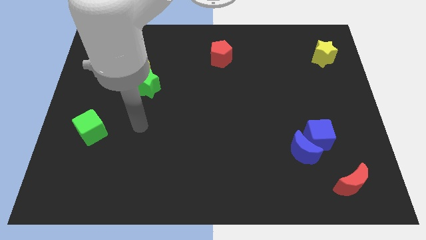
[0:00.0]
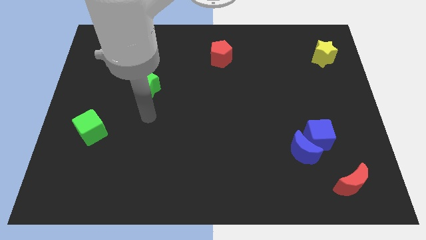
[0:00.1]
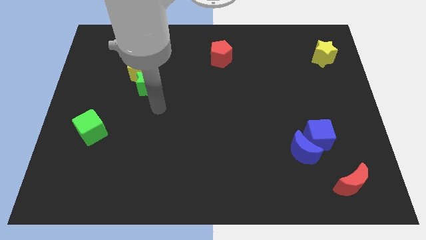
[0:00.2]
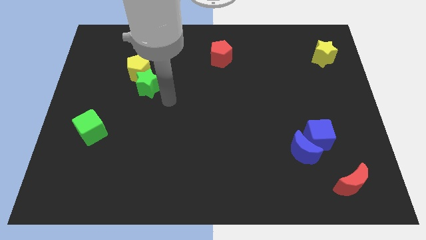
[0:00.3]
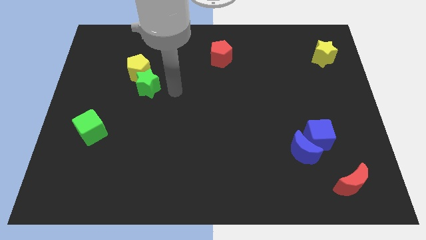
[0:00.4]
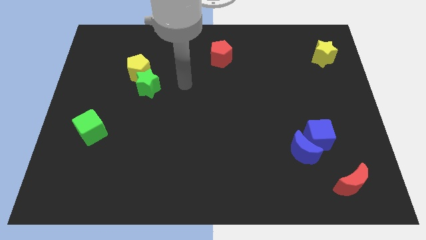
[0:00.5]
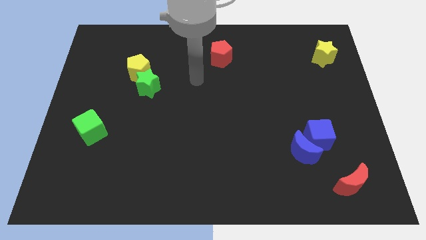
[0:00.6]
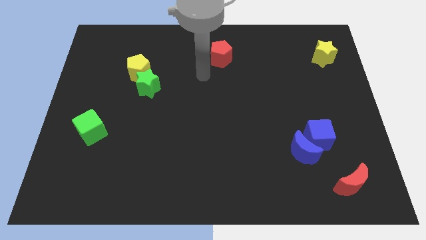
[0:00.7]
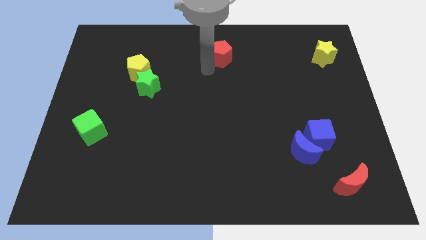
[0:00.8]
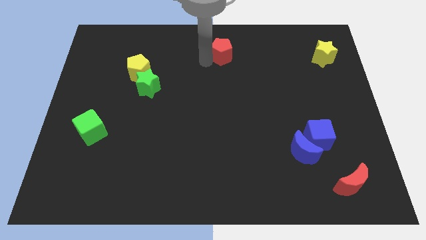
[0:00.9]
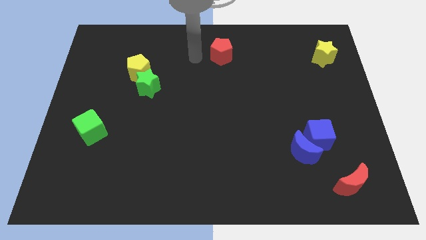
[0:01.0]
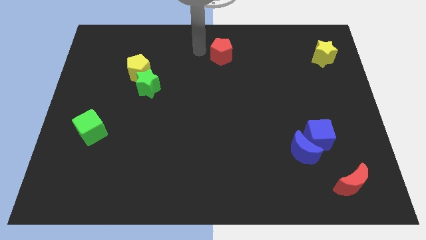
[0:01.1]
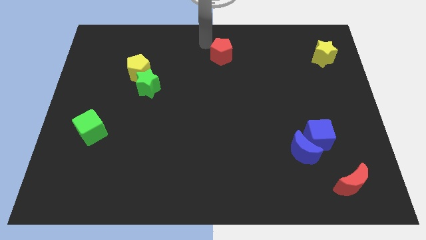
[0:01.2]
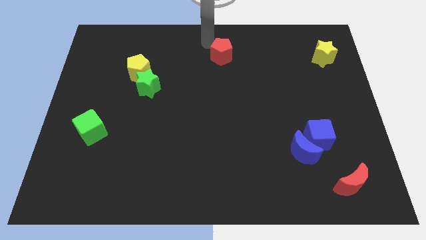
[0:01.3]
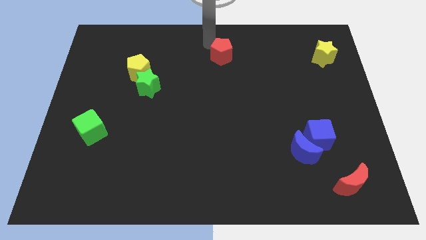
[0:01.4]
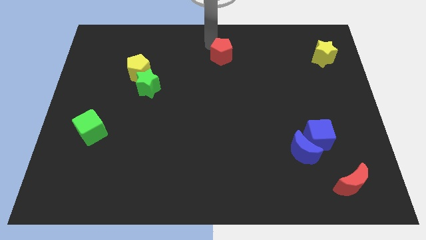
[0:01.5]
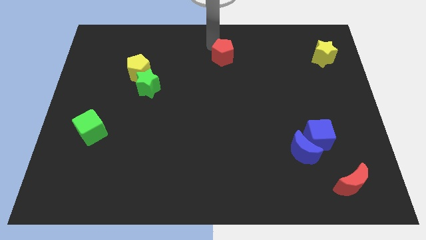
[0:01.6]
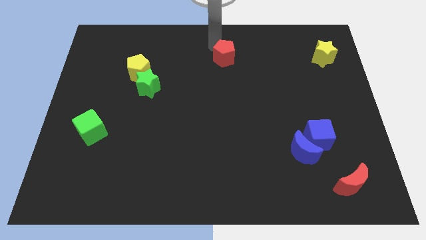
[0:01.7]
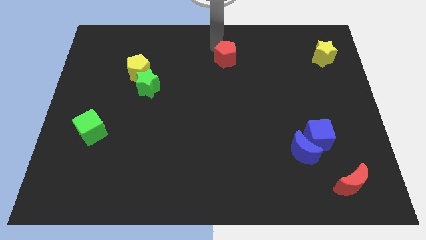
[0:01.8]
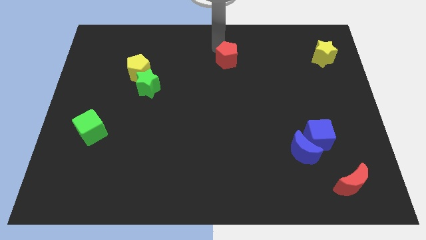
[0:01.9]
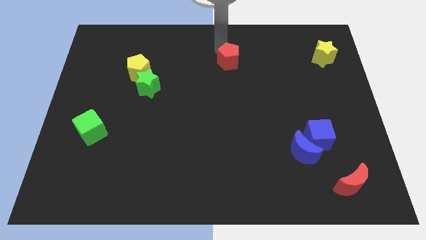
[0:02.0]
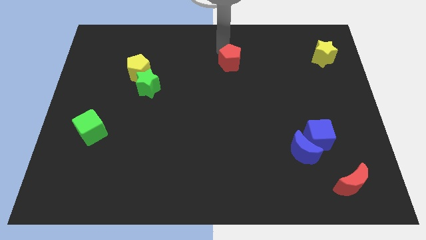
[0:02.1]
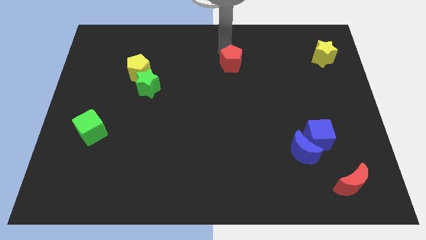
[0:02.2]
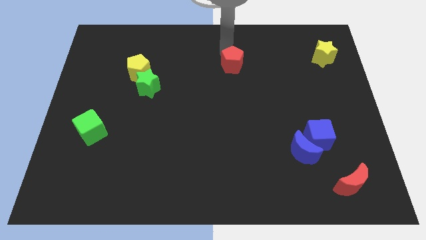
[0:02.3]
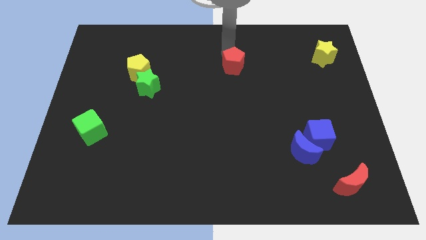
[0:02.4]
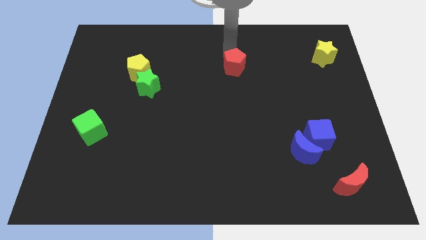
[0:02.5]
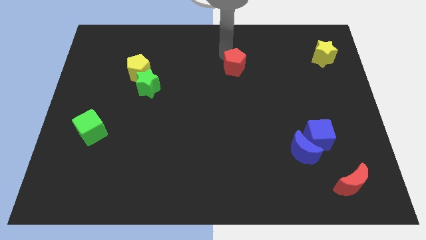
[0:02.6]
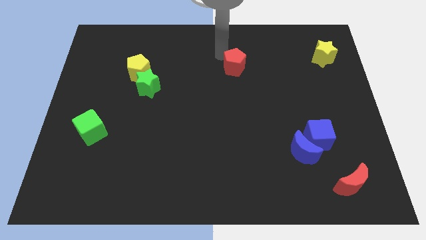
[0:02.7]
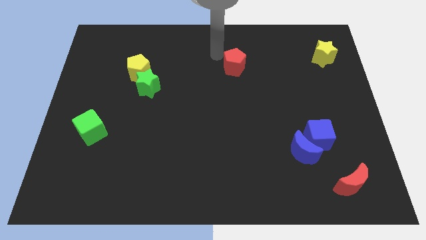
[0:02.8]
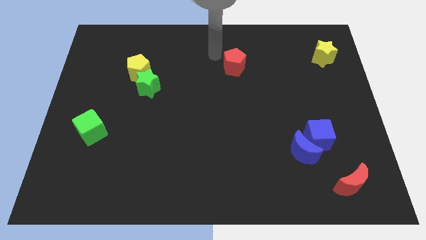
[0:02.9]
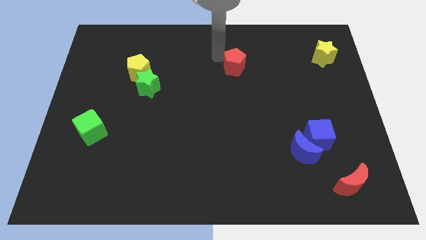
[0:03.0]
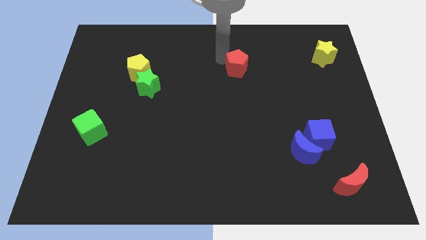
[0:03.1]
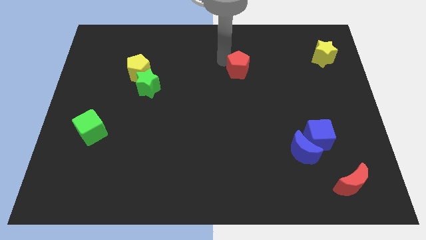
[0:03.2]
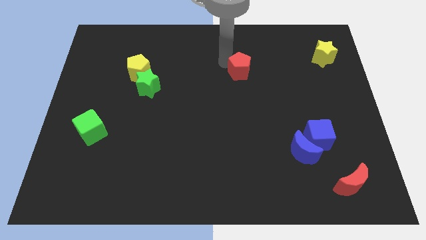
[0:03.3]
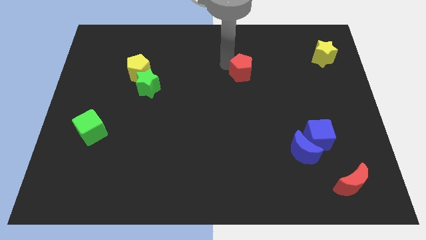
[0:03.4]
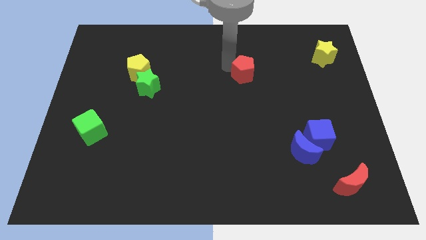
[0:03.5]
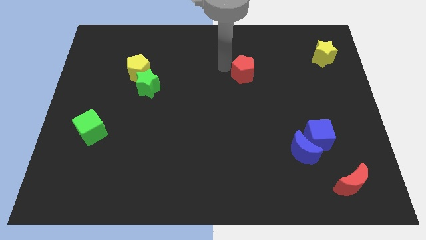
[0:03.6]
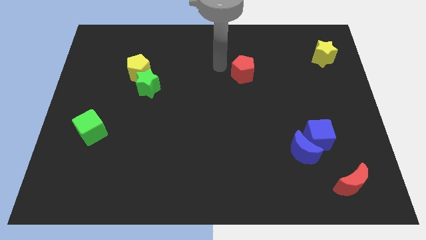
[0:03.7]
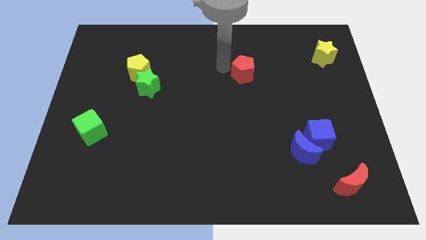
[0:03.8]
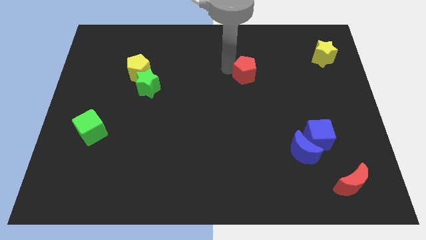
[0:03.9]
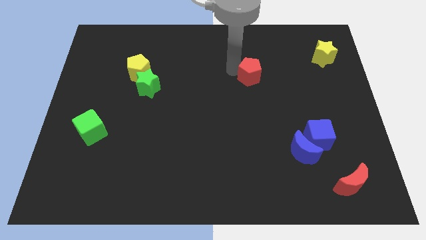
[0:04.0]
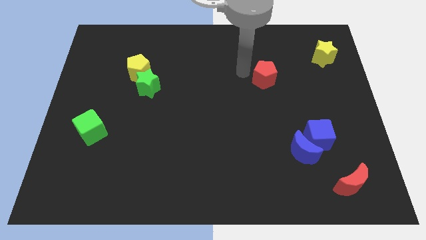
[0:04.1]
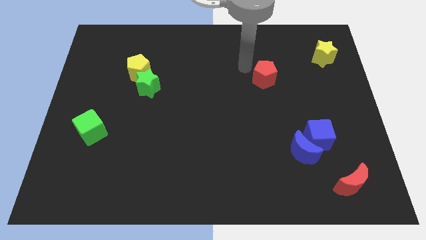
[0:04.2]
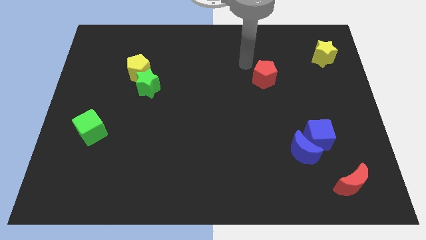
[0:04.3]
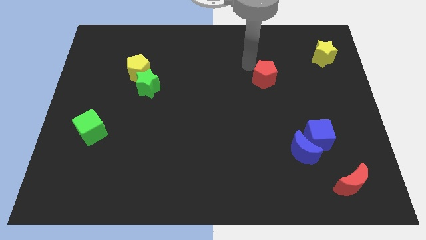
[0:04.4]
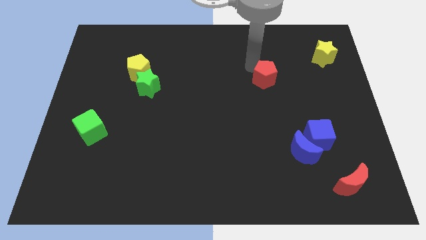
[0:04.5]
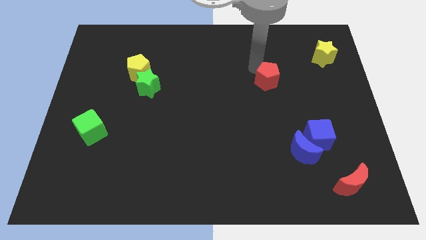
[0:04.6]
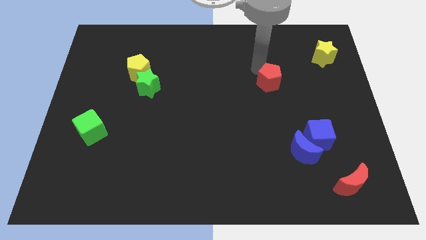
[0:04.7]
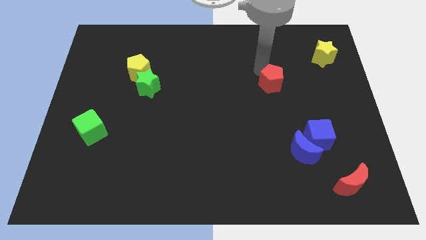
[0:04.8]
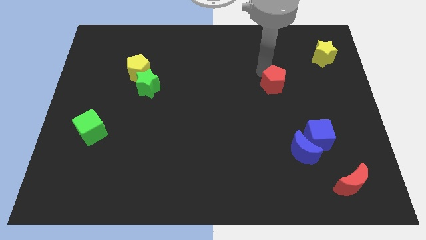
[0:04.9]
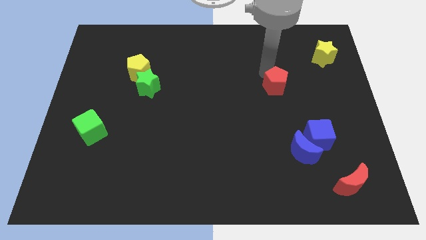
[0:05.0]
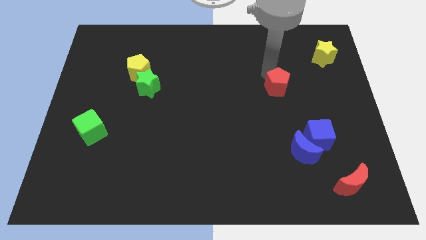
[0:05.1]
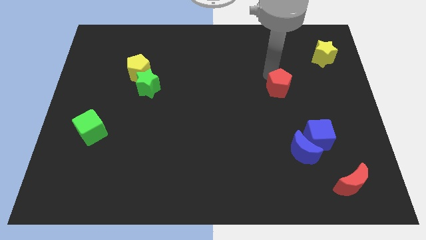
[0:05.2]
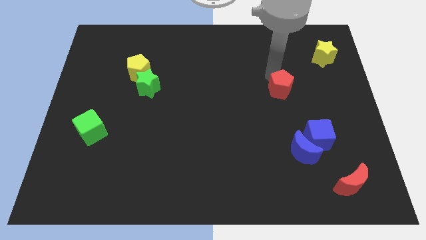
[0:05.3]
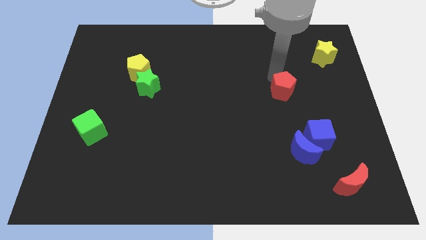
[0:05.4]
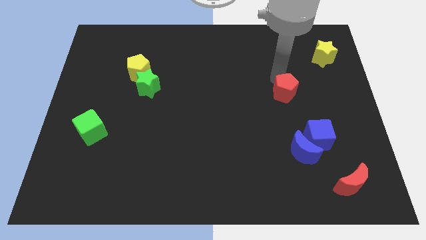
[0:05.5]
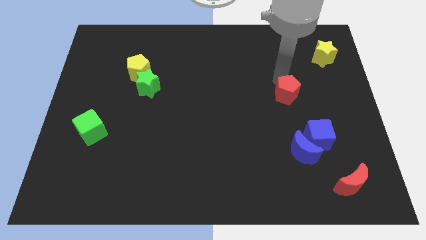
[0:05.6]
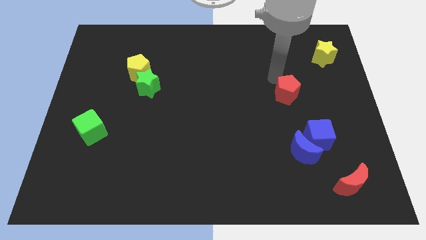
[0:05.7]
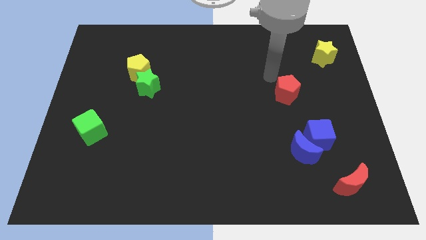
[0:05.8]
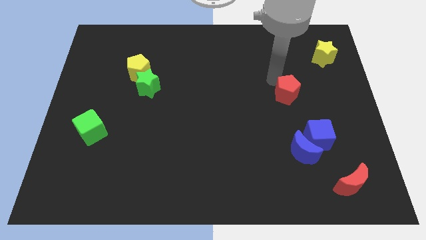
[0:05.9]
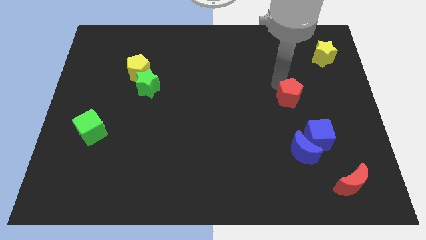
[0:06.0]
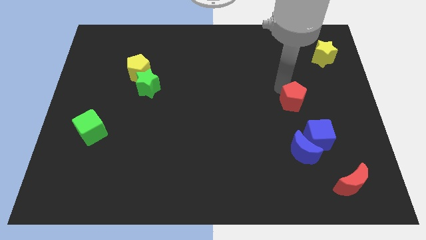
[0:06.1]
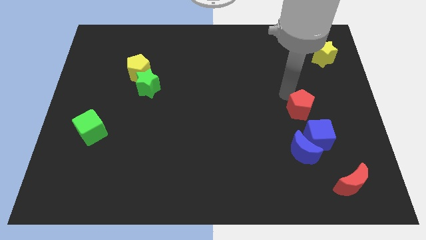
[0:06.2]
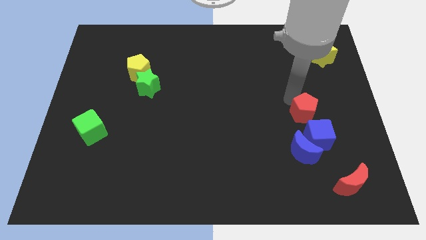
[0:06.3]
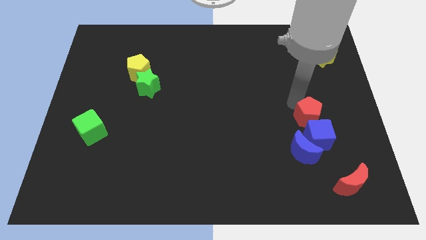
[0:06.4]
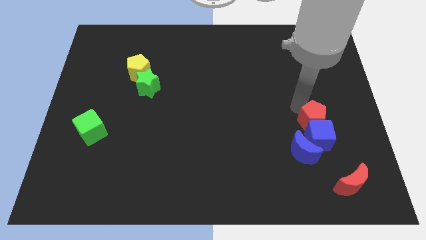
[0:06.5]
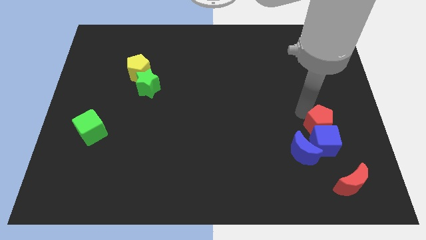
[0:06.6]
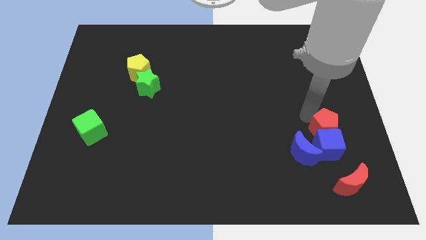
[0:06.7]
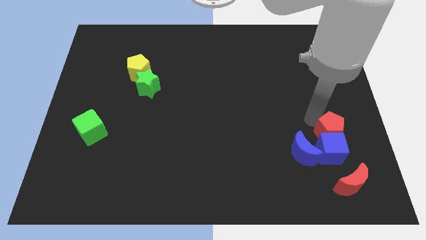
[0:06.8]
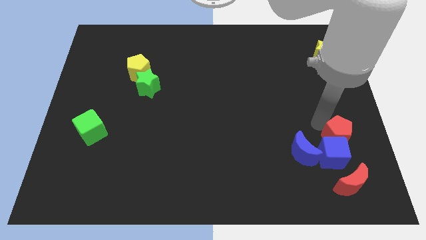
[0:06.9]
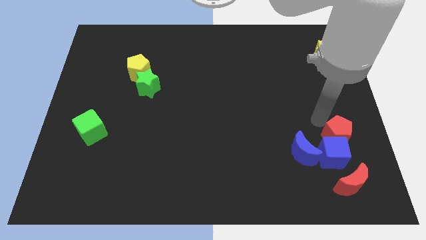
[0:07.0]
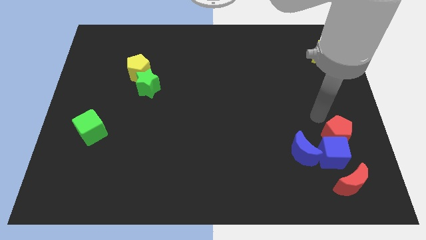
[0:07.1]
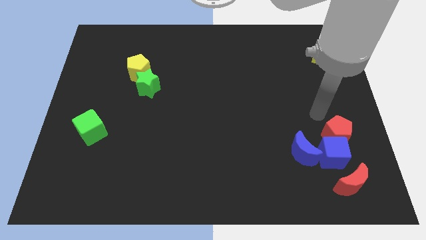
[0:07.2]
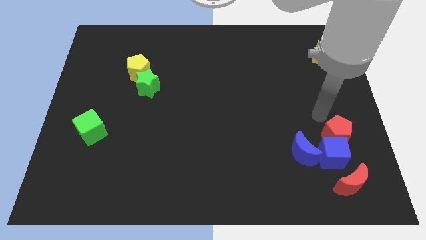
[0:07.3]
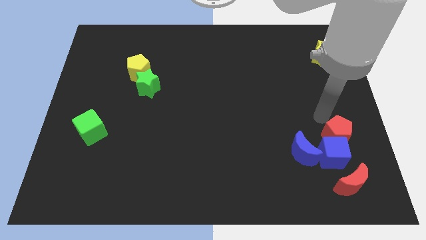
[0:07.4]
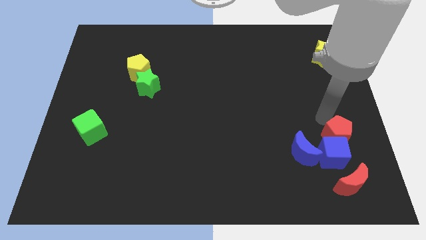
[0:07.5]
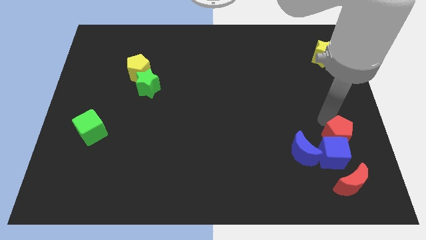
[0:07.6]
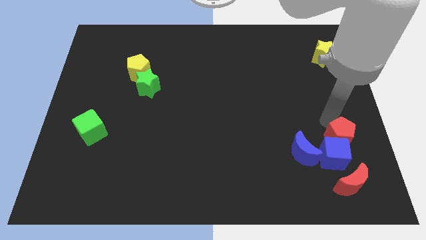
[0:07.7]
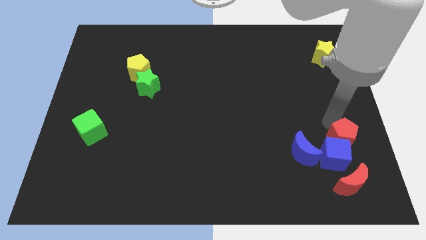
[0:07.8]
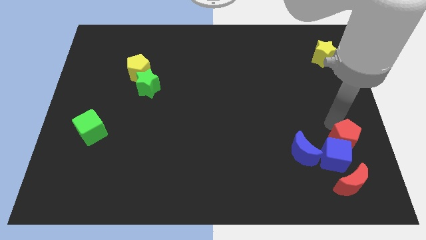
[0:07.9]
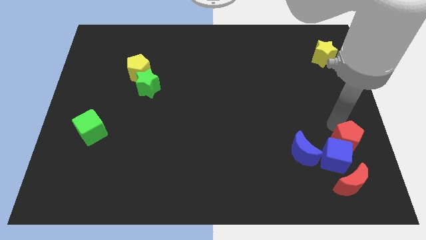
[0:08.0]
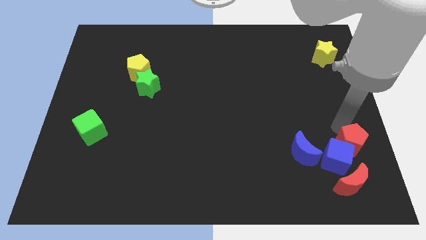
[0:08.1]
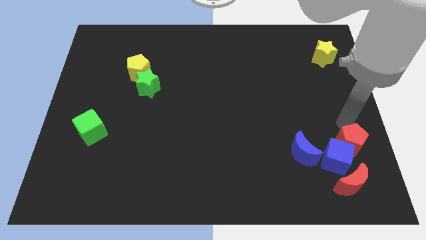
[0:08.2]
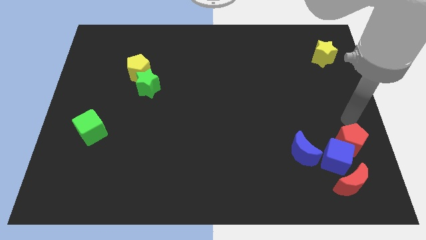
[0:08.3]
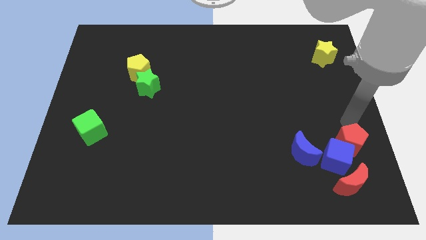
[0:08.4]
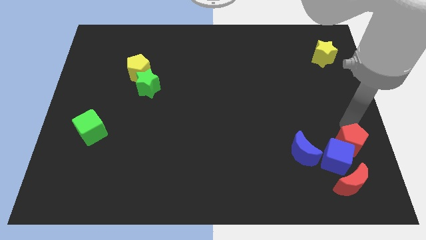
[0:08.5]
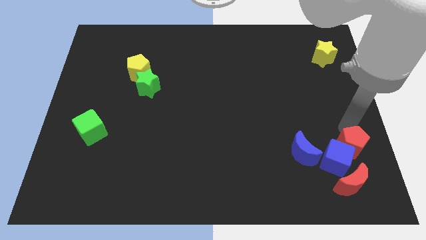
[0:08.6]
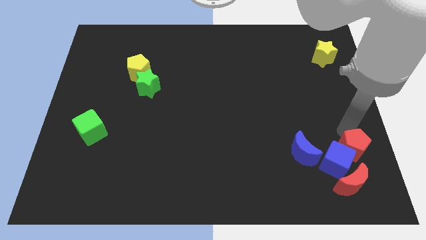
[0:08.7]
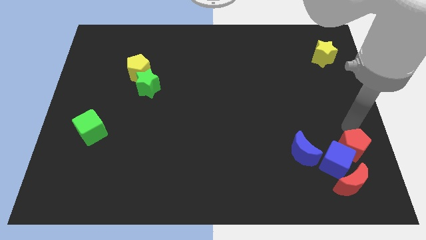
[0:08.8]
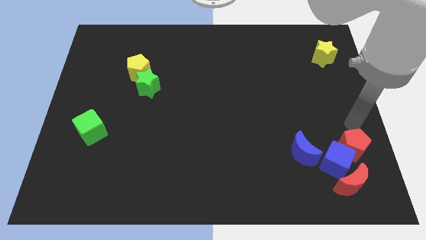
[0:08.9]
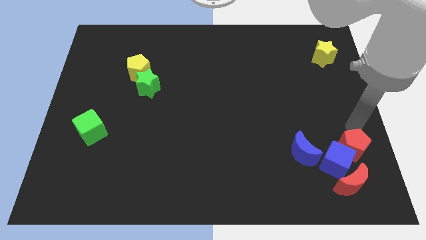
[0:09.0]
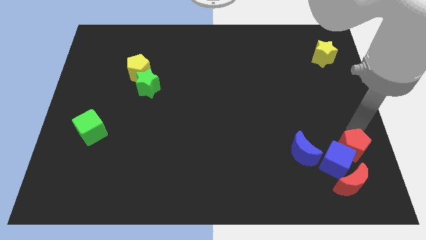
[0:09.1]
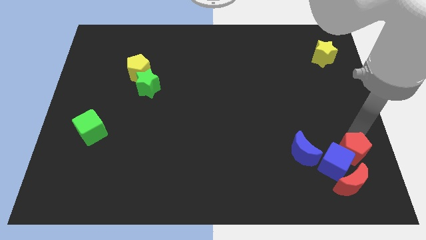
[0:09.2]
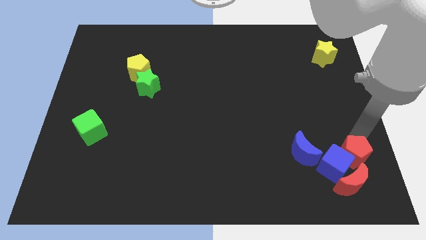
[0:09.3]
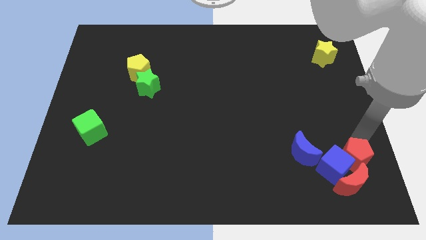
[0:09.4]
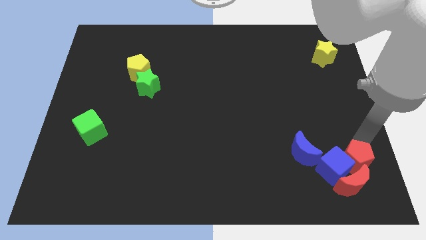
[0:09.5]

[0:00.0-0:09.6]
put the red pentagon close to the red moon
